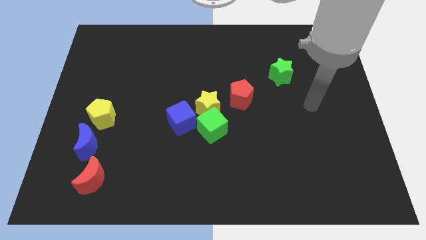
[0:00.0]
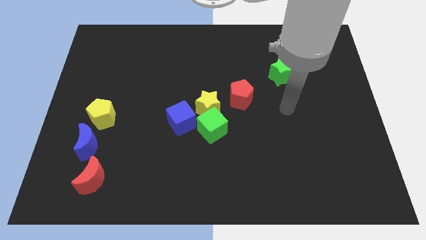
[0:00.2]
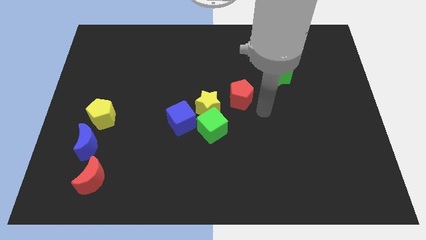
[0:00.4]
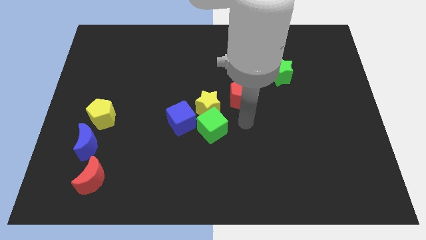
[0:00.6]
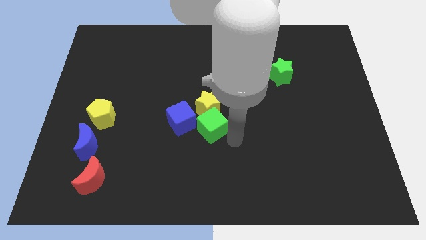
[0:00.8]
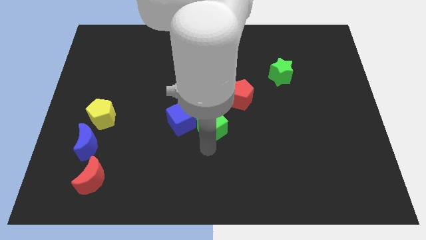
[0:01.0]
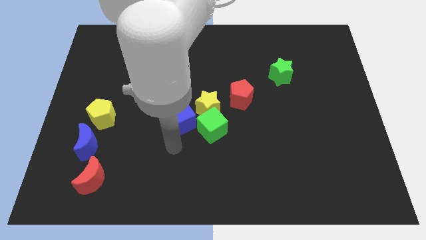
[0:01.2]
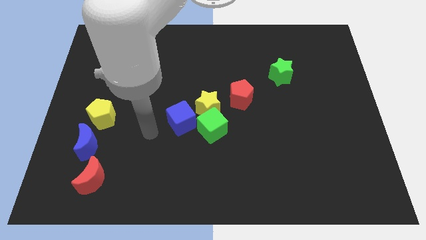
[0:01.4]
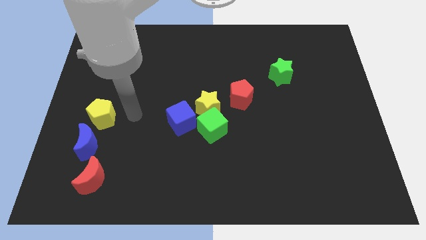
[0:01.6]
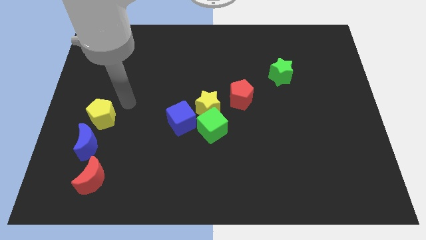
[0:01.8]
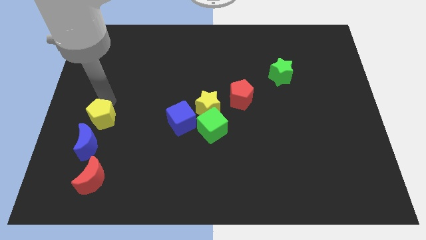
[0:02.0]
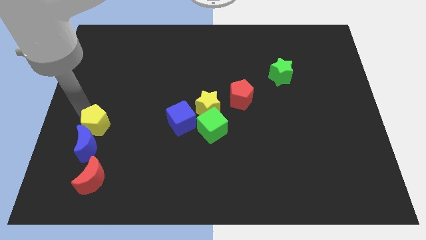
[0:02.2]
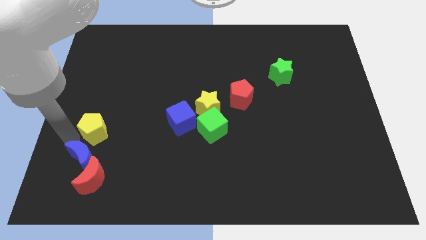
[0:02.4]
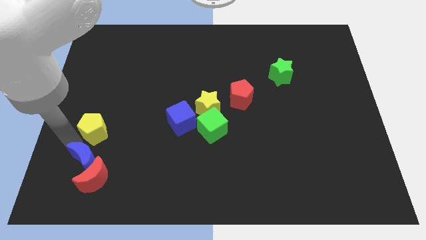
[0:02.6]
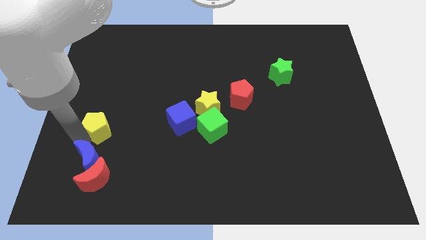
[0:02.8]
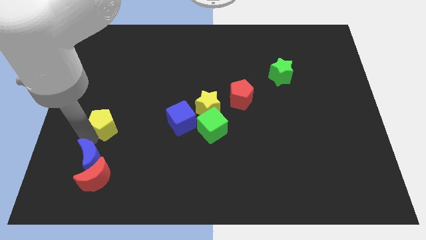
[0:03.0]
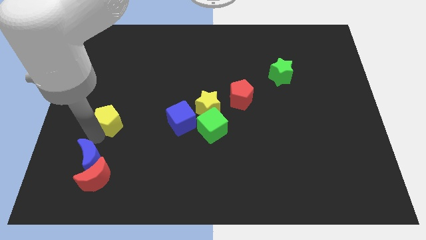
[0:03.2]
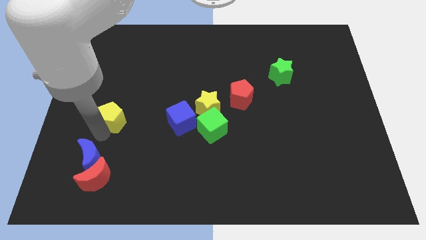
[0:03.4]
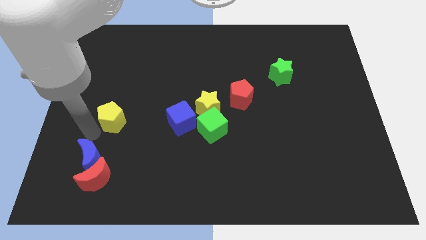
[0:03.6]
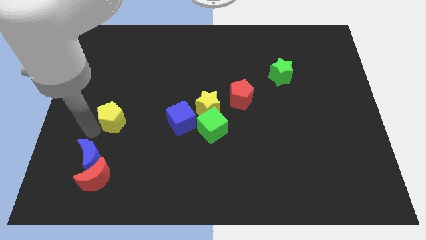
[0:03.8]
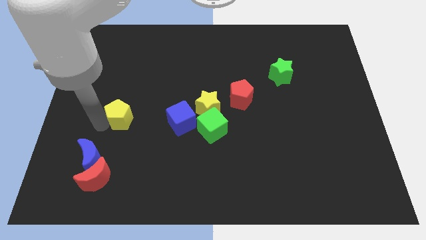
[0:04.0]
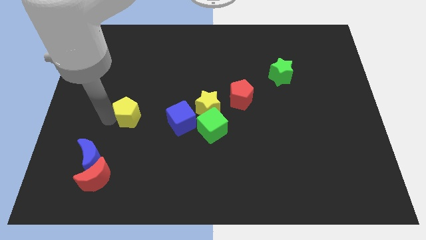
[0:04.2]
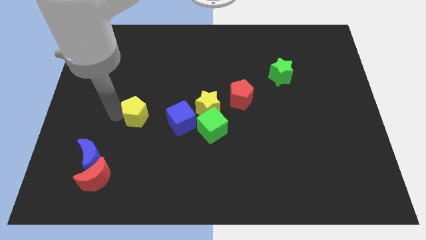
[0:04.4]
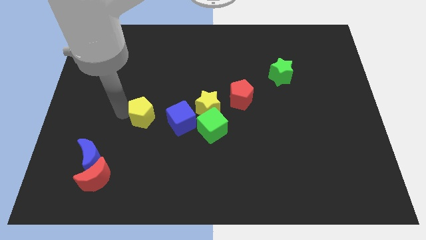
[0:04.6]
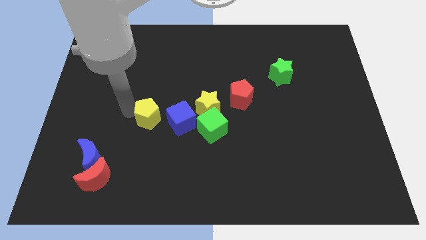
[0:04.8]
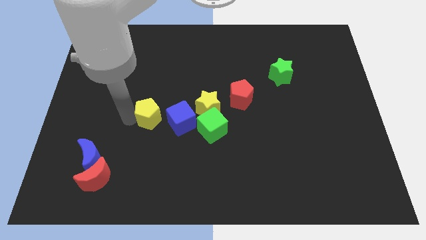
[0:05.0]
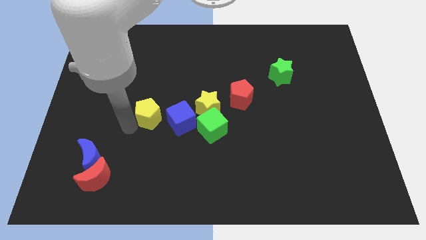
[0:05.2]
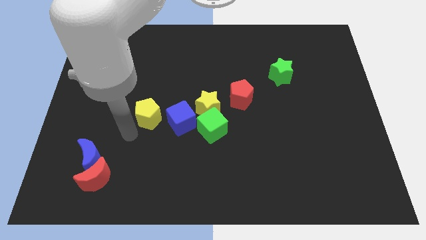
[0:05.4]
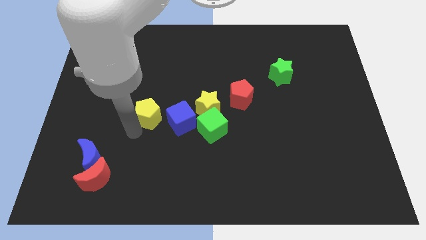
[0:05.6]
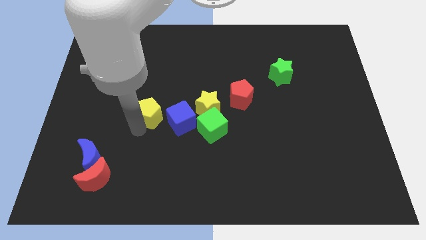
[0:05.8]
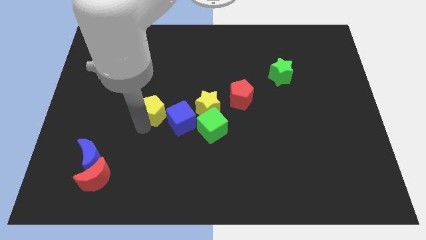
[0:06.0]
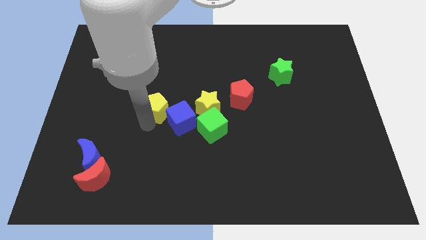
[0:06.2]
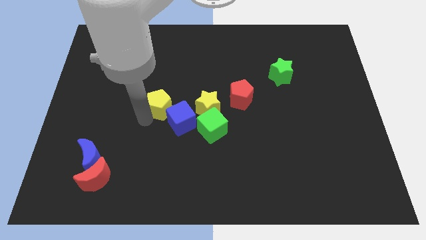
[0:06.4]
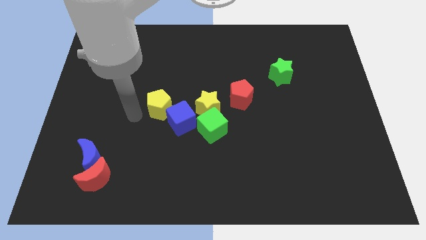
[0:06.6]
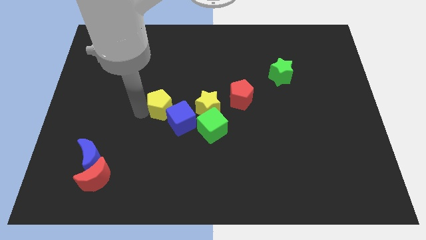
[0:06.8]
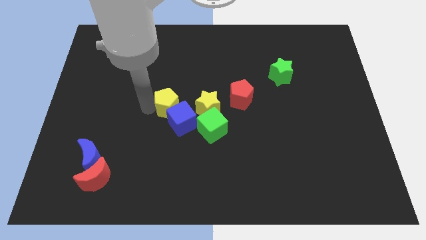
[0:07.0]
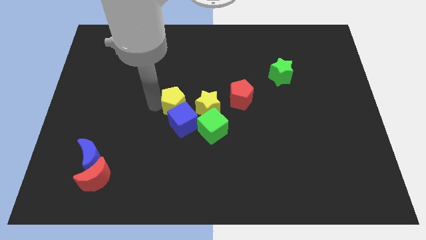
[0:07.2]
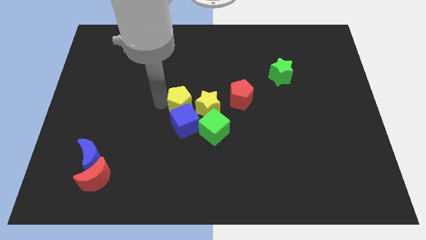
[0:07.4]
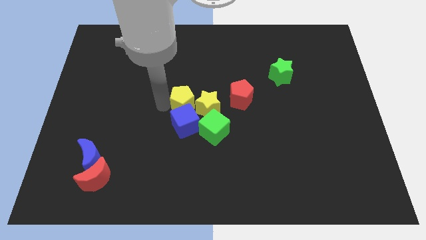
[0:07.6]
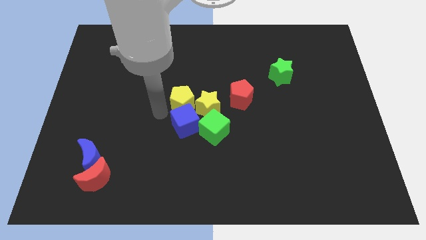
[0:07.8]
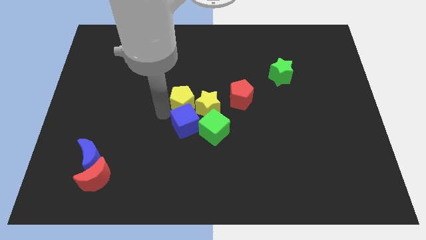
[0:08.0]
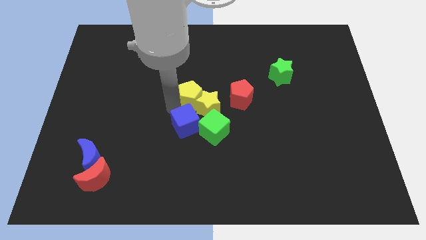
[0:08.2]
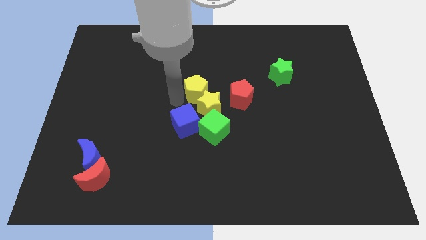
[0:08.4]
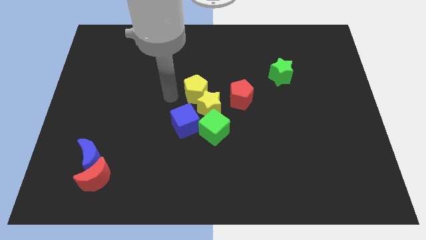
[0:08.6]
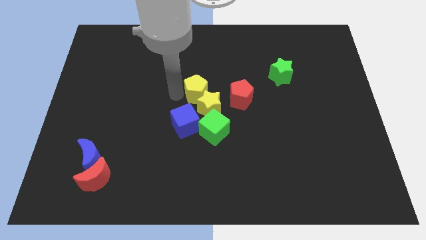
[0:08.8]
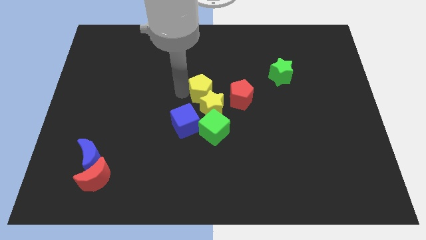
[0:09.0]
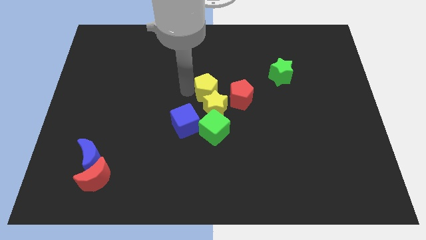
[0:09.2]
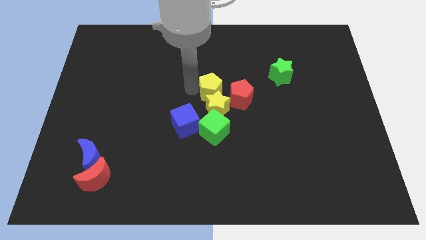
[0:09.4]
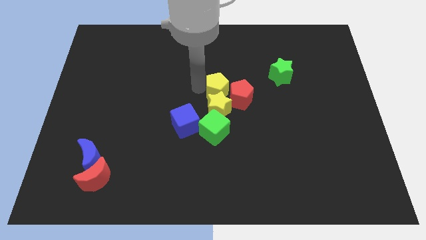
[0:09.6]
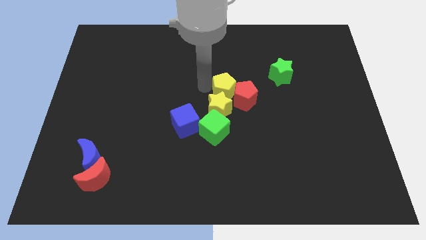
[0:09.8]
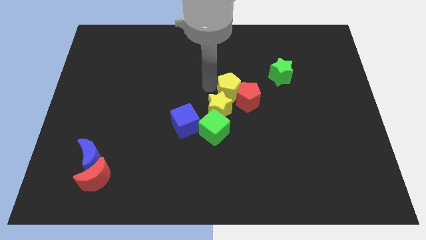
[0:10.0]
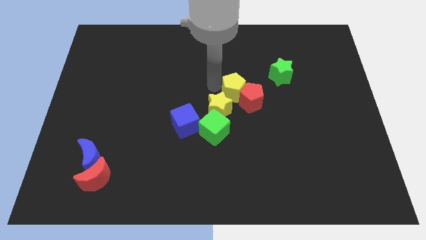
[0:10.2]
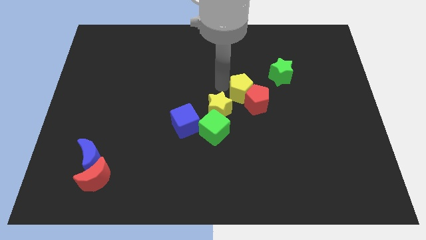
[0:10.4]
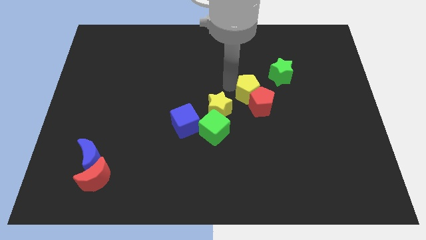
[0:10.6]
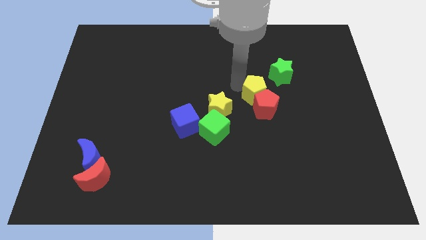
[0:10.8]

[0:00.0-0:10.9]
put the yellow pentagon to the top right of the red pentagon

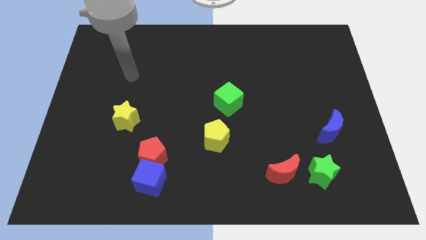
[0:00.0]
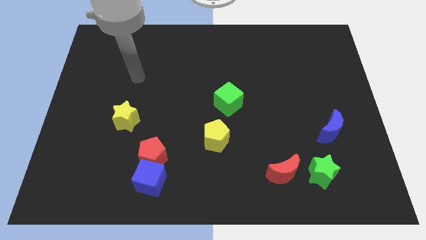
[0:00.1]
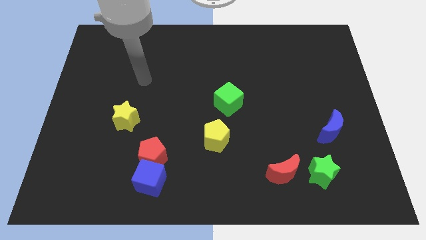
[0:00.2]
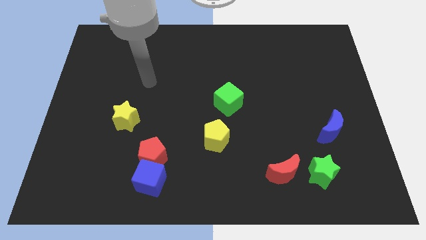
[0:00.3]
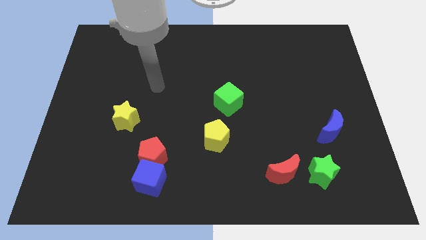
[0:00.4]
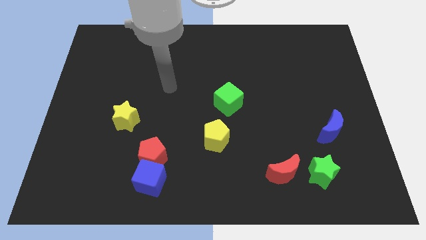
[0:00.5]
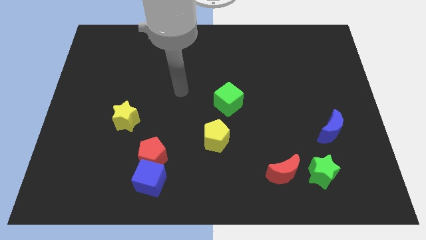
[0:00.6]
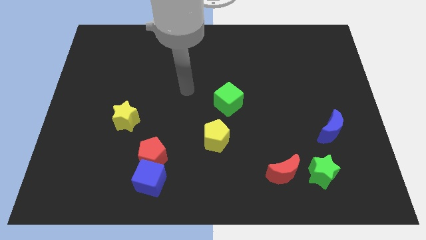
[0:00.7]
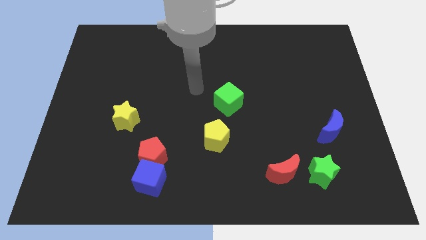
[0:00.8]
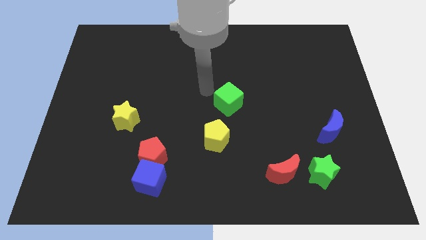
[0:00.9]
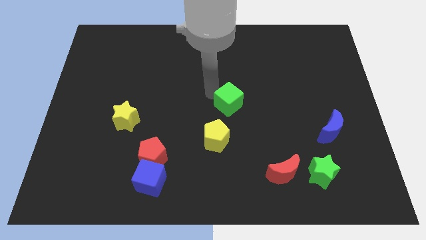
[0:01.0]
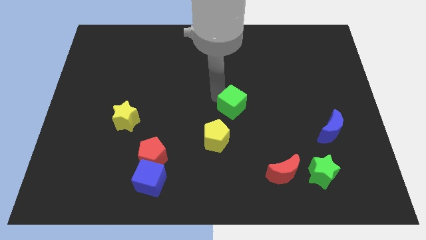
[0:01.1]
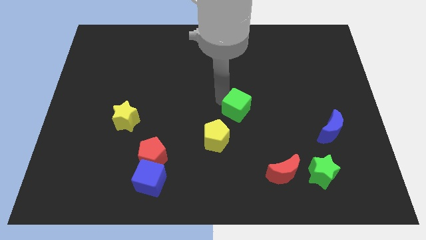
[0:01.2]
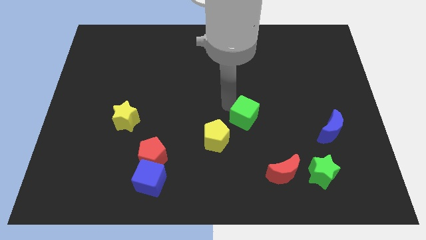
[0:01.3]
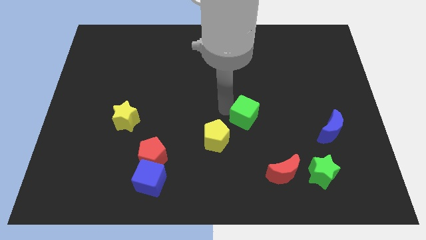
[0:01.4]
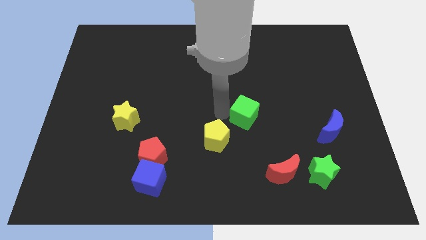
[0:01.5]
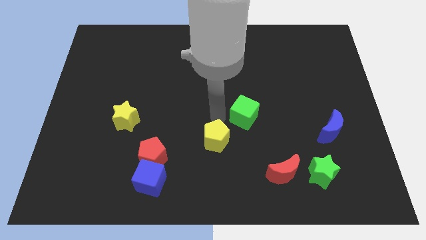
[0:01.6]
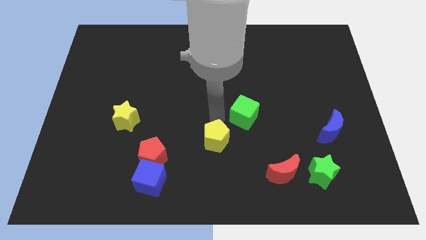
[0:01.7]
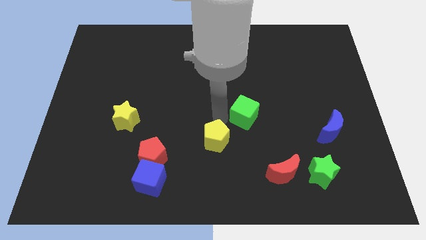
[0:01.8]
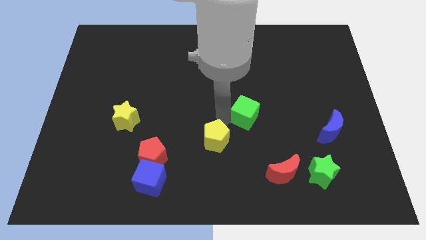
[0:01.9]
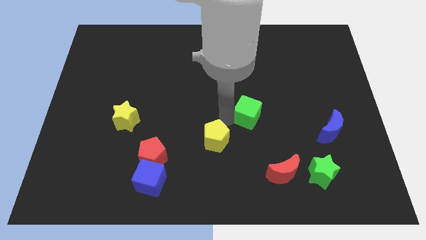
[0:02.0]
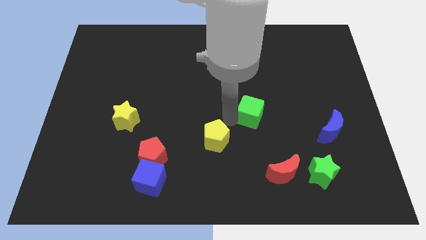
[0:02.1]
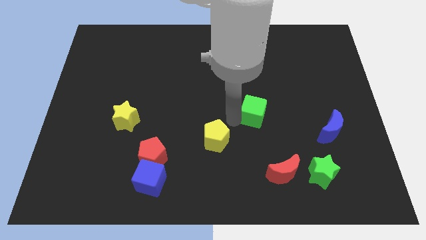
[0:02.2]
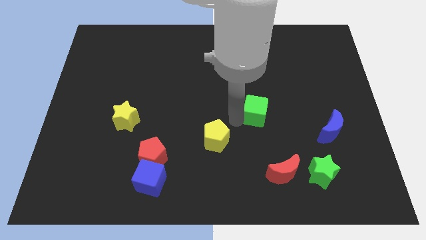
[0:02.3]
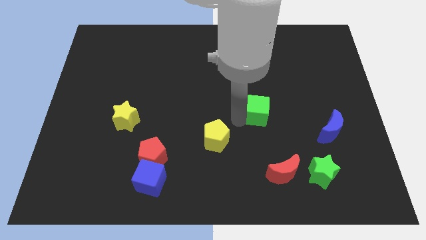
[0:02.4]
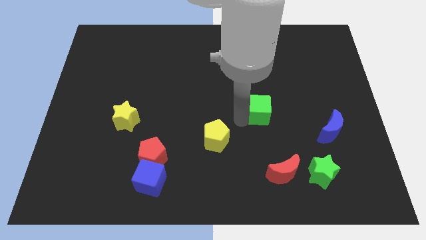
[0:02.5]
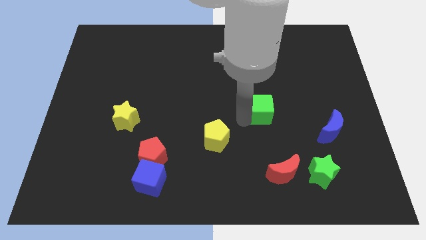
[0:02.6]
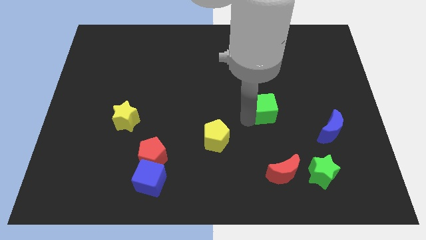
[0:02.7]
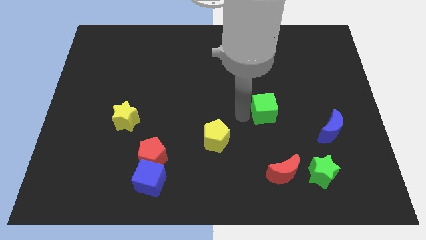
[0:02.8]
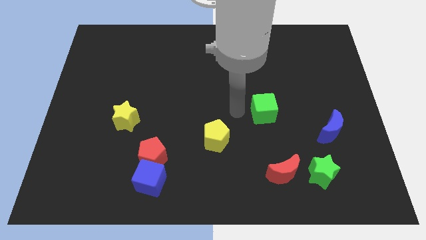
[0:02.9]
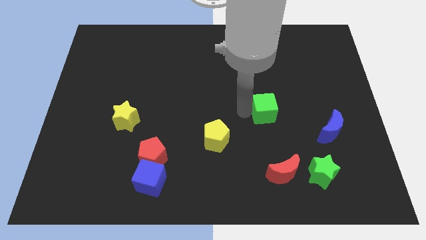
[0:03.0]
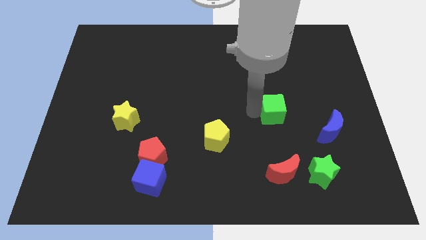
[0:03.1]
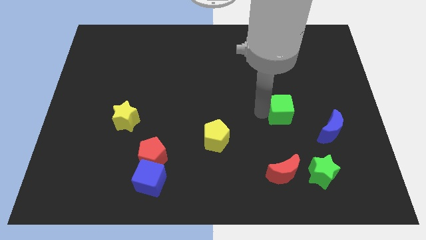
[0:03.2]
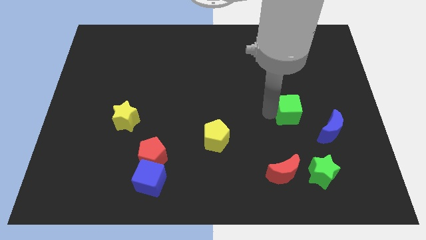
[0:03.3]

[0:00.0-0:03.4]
move the green cube diagonally up and to the left of the blue moon
